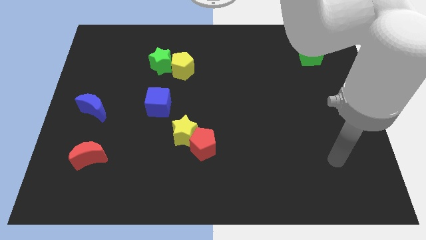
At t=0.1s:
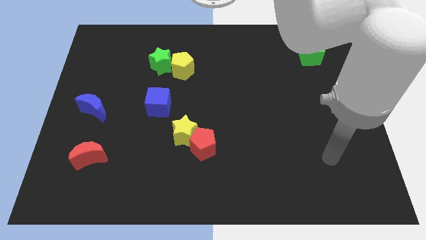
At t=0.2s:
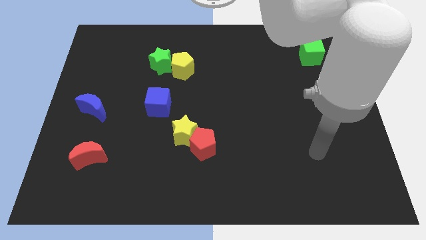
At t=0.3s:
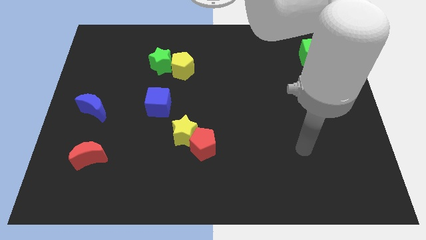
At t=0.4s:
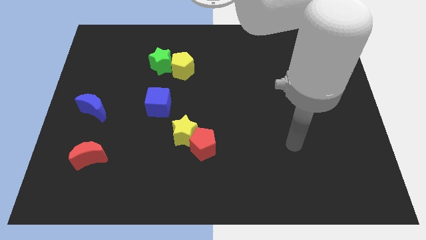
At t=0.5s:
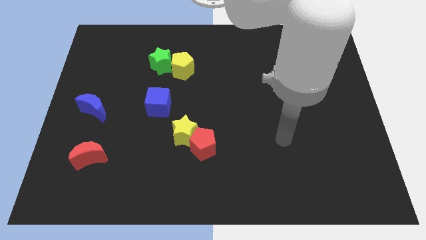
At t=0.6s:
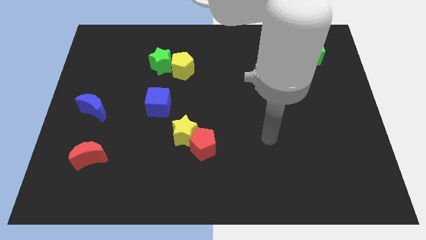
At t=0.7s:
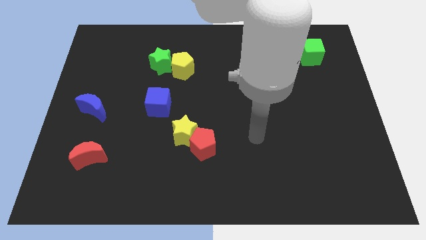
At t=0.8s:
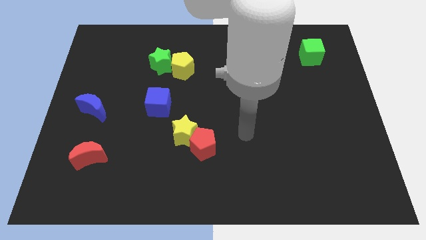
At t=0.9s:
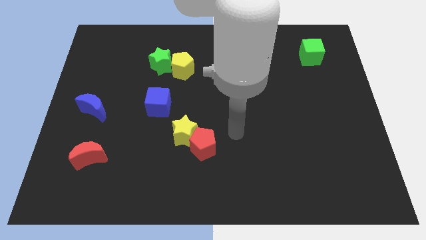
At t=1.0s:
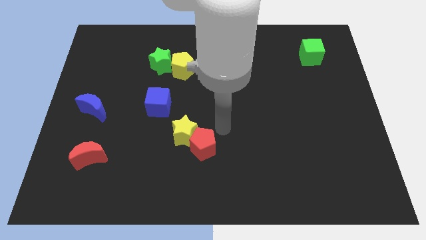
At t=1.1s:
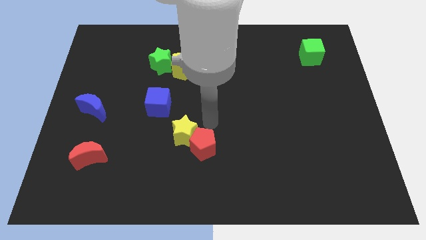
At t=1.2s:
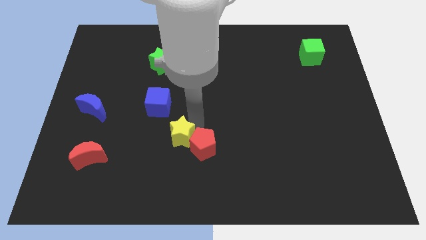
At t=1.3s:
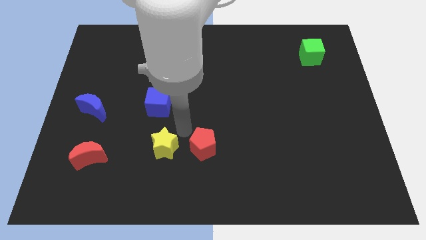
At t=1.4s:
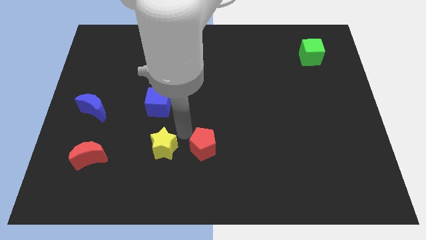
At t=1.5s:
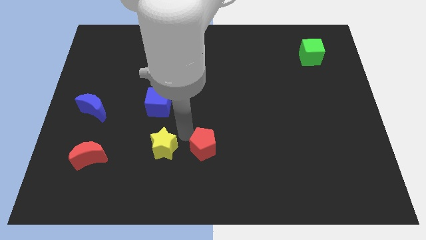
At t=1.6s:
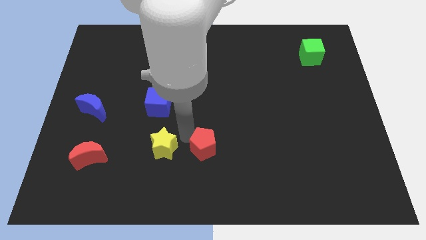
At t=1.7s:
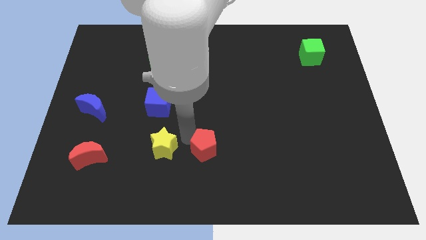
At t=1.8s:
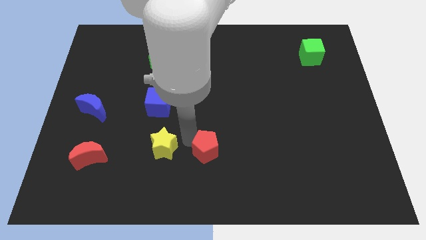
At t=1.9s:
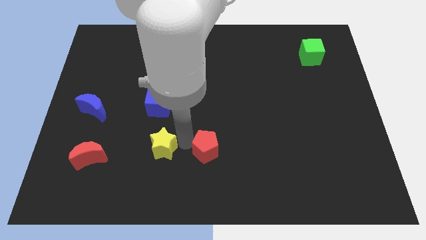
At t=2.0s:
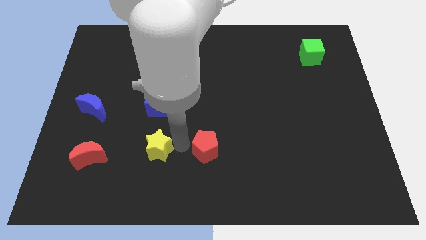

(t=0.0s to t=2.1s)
pull the red pentagon apart from the yellow star

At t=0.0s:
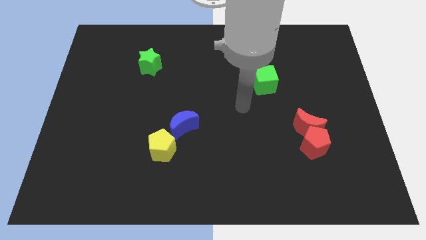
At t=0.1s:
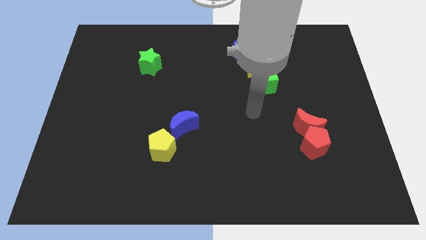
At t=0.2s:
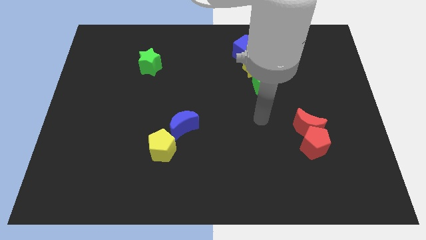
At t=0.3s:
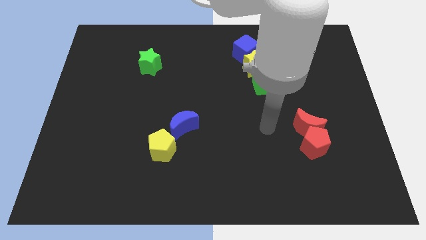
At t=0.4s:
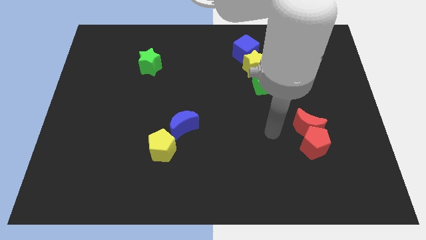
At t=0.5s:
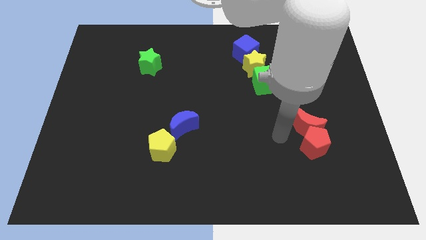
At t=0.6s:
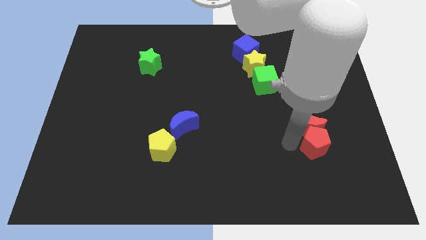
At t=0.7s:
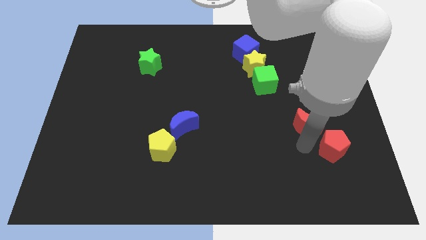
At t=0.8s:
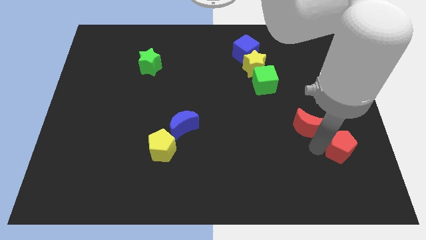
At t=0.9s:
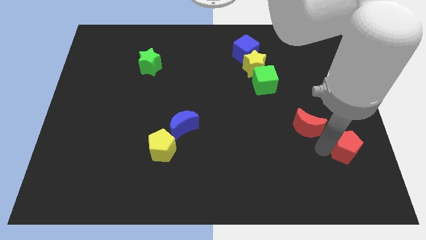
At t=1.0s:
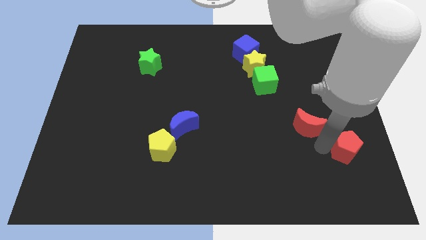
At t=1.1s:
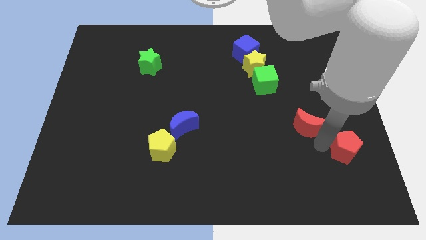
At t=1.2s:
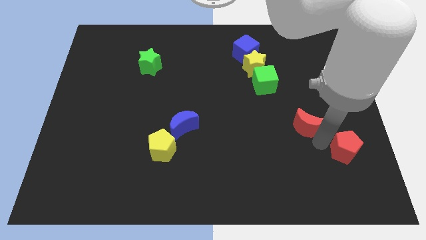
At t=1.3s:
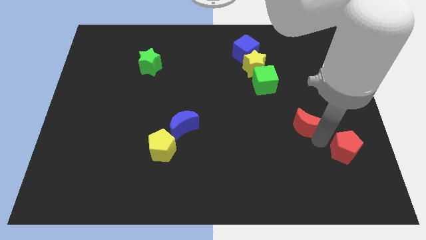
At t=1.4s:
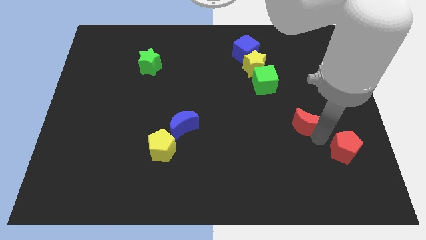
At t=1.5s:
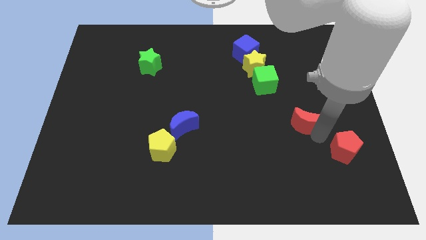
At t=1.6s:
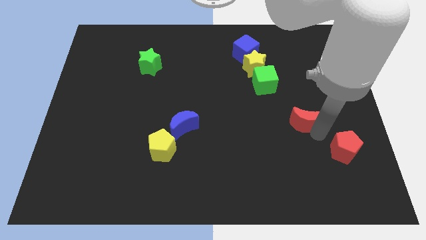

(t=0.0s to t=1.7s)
separate the red moon from the red pentagon

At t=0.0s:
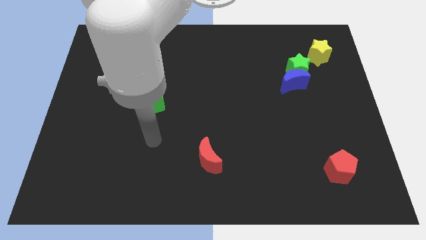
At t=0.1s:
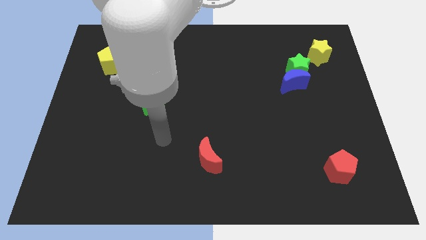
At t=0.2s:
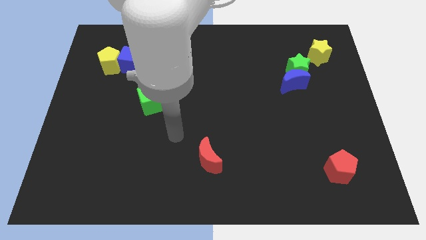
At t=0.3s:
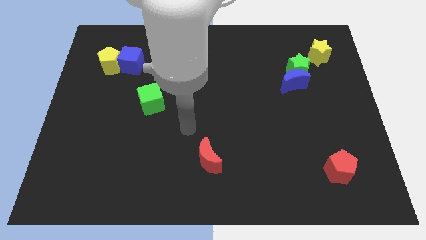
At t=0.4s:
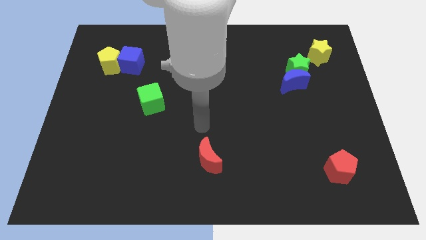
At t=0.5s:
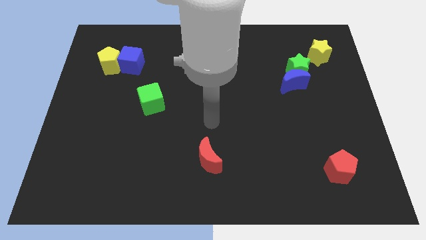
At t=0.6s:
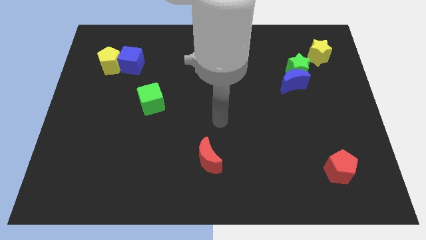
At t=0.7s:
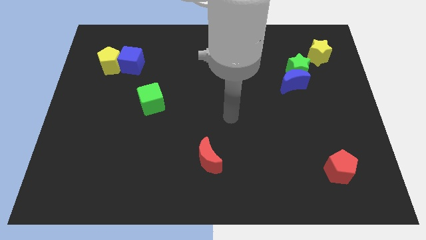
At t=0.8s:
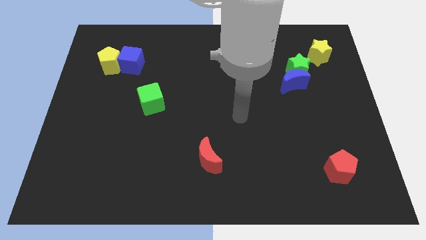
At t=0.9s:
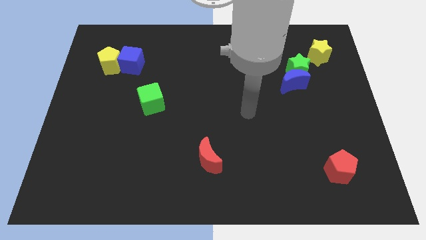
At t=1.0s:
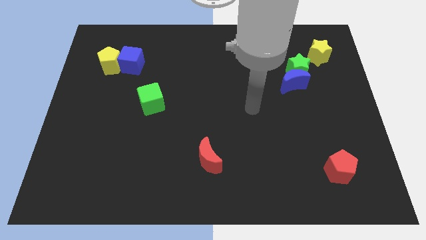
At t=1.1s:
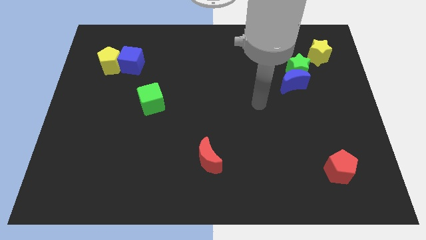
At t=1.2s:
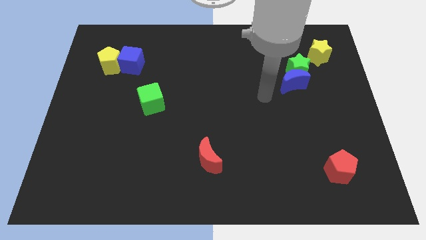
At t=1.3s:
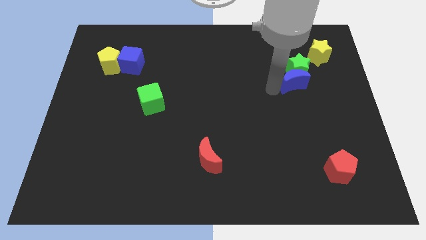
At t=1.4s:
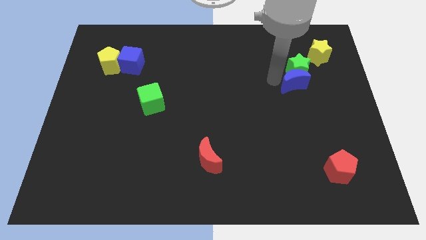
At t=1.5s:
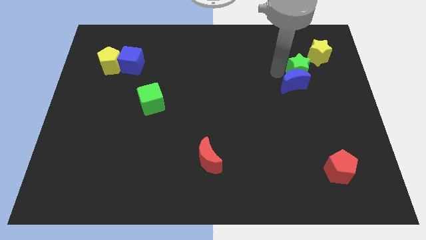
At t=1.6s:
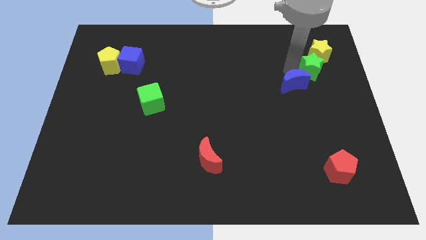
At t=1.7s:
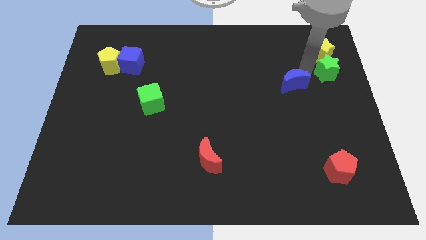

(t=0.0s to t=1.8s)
pull the blue moon apart from the green star

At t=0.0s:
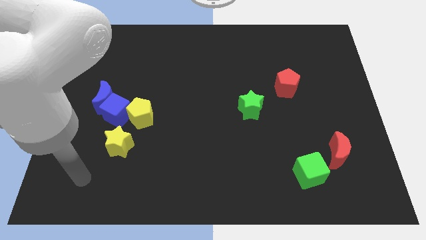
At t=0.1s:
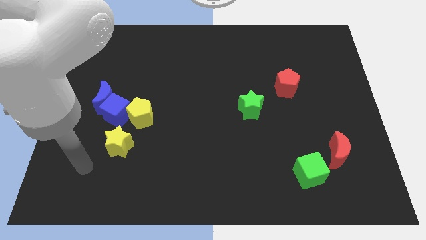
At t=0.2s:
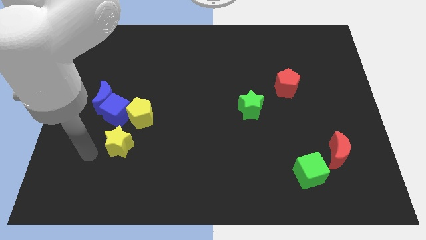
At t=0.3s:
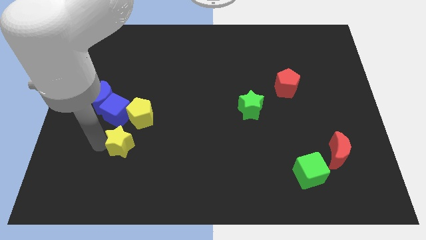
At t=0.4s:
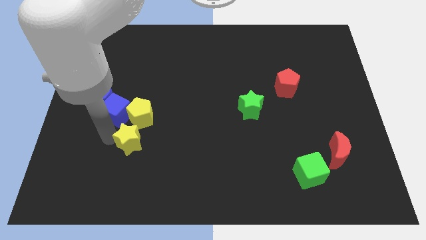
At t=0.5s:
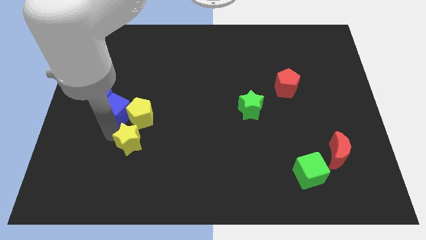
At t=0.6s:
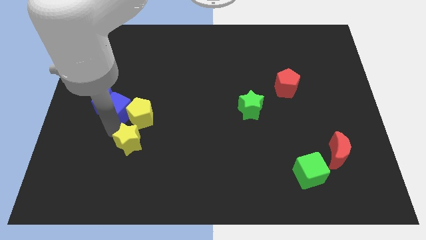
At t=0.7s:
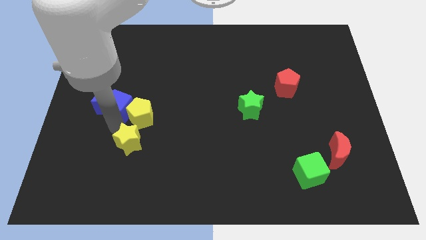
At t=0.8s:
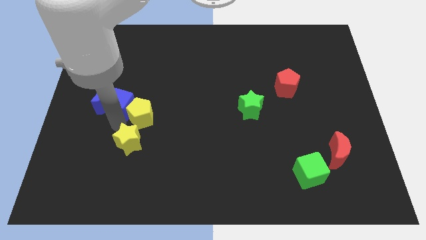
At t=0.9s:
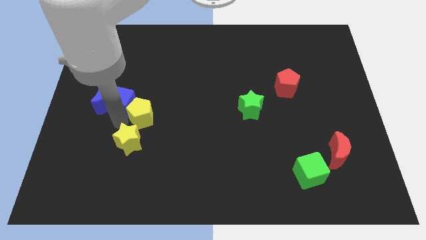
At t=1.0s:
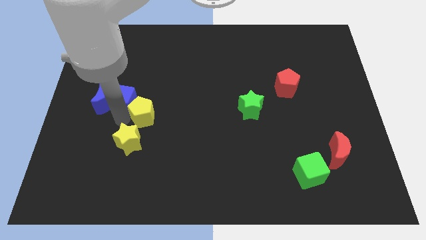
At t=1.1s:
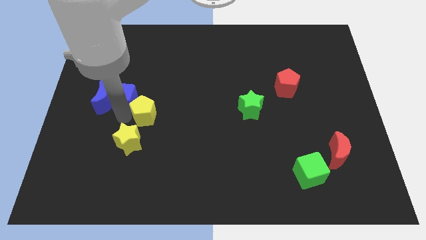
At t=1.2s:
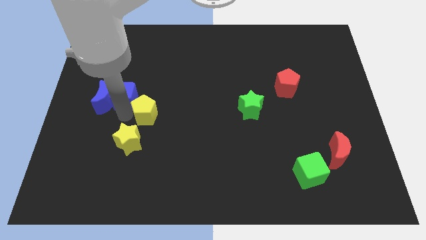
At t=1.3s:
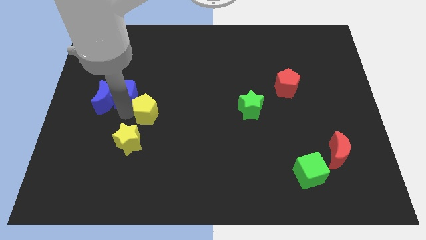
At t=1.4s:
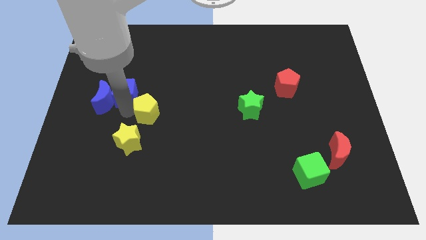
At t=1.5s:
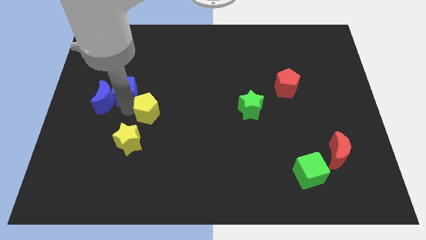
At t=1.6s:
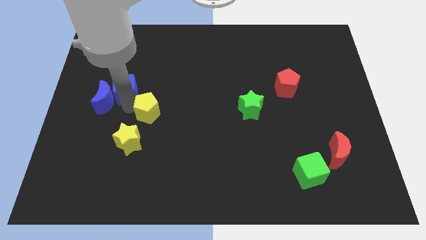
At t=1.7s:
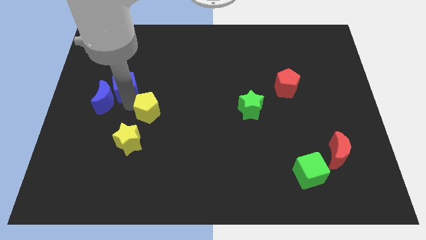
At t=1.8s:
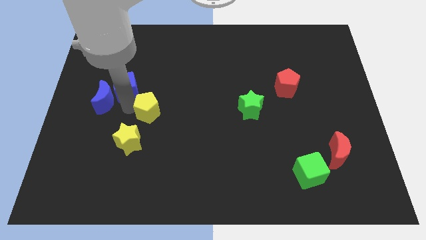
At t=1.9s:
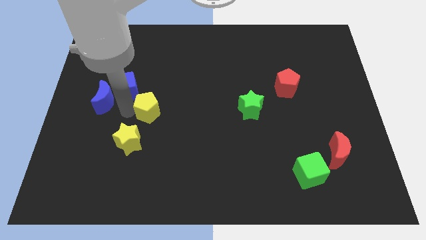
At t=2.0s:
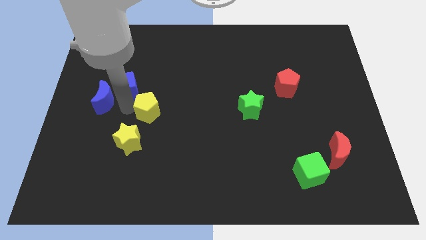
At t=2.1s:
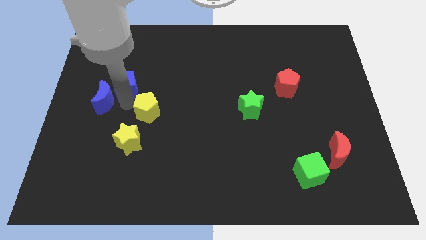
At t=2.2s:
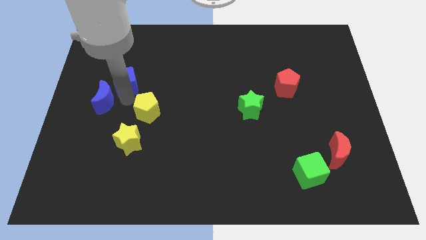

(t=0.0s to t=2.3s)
move the blue cube away from the group of blocks

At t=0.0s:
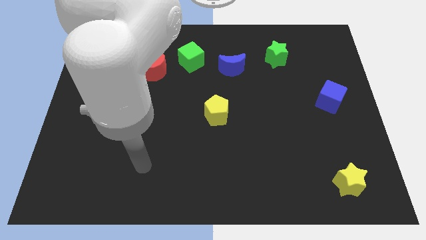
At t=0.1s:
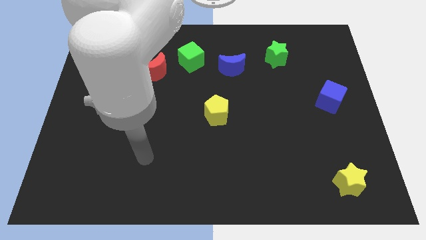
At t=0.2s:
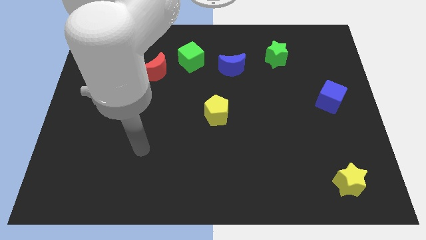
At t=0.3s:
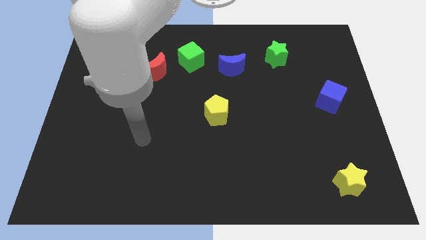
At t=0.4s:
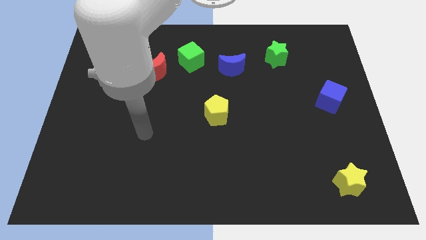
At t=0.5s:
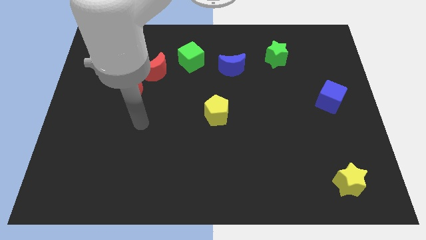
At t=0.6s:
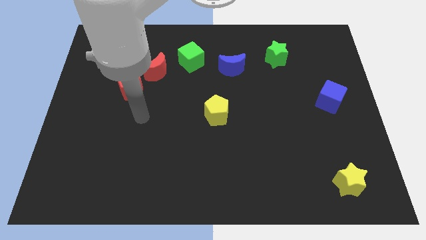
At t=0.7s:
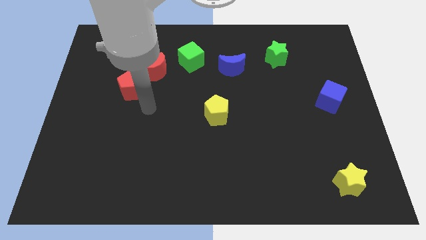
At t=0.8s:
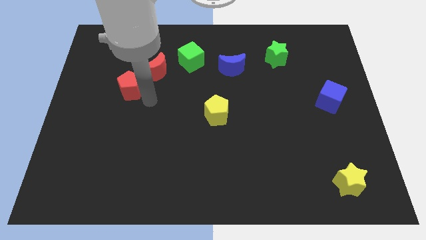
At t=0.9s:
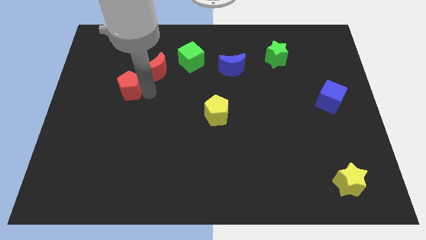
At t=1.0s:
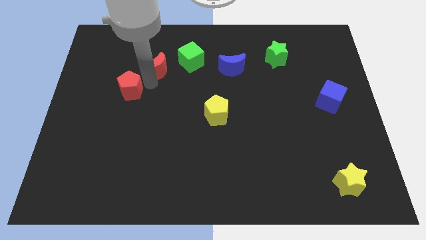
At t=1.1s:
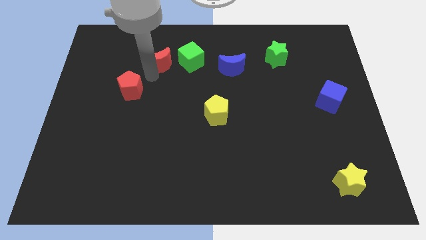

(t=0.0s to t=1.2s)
separate the red pentagon from the red moon

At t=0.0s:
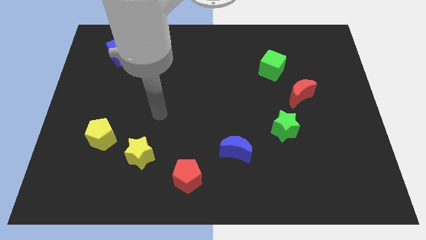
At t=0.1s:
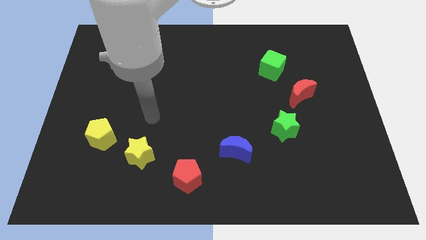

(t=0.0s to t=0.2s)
pull the yellow star apart from the yellow pentagon
